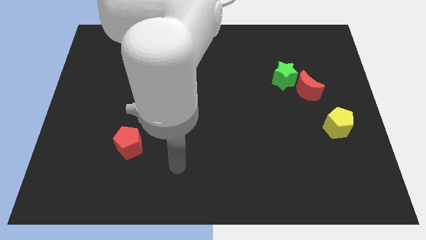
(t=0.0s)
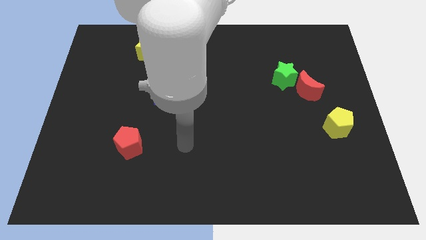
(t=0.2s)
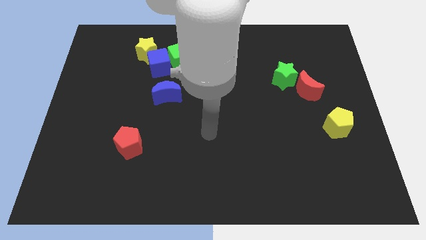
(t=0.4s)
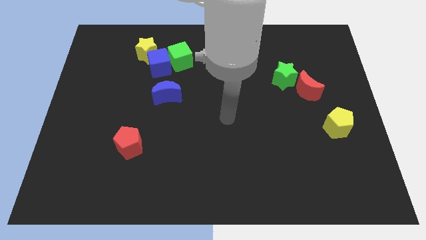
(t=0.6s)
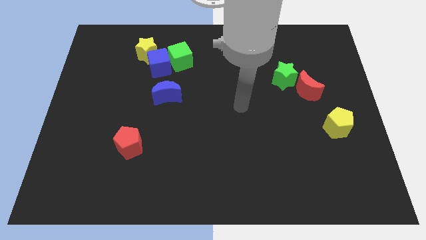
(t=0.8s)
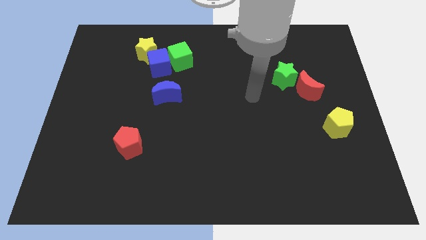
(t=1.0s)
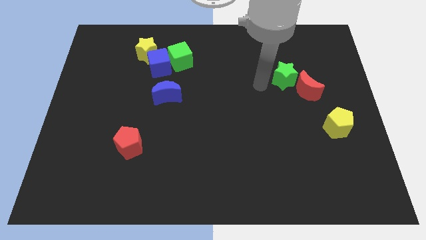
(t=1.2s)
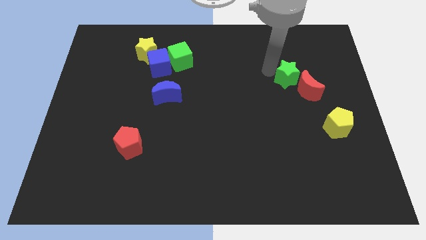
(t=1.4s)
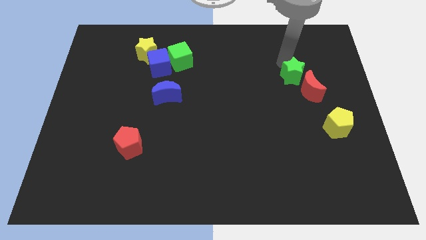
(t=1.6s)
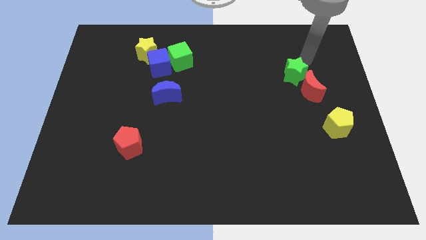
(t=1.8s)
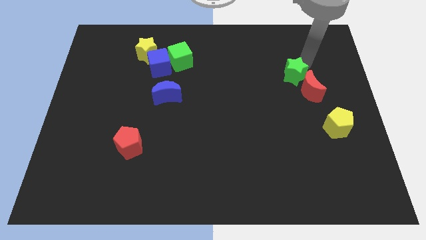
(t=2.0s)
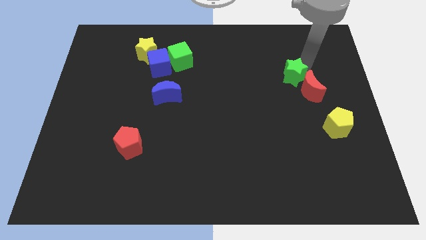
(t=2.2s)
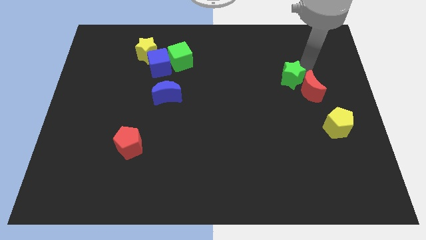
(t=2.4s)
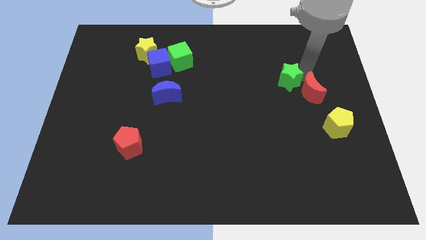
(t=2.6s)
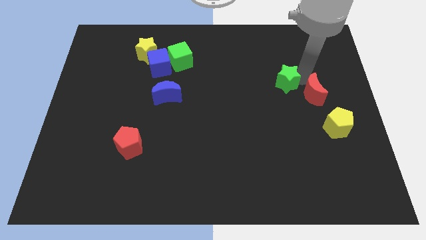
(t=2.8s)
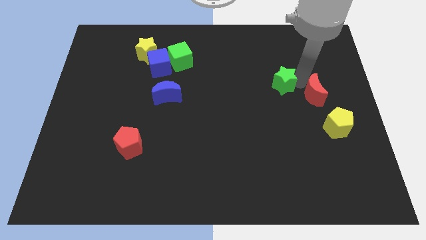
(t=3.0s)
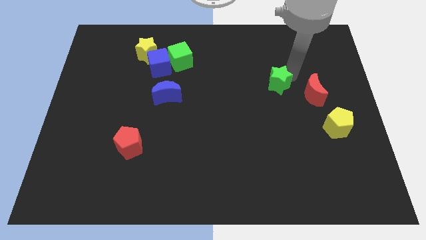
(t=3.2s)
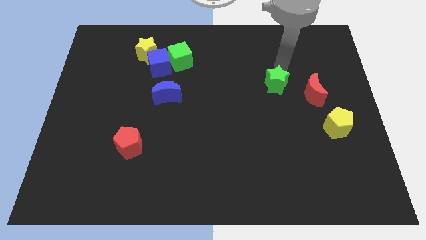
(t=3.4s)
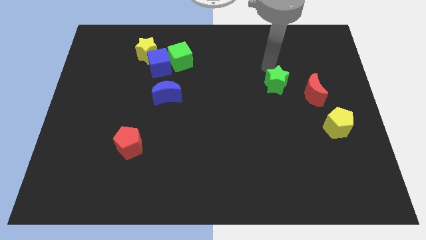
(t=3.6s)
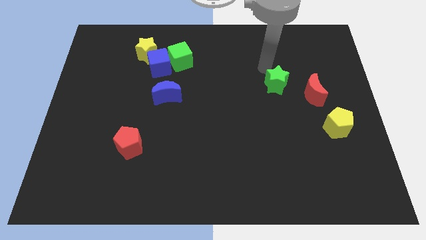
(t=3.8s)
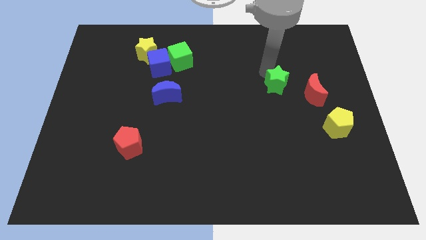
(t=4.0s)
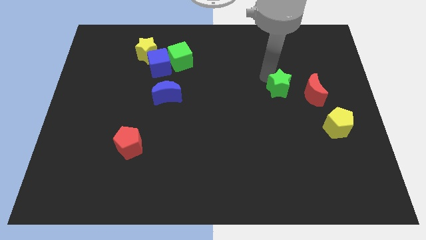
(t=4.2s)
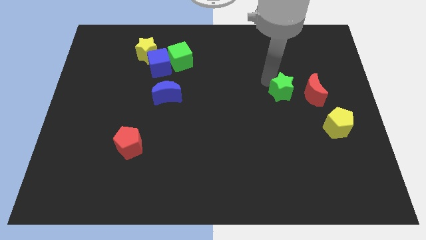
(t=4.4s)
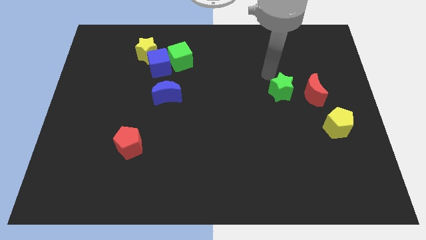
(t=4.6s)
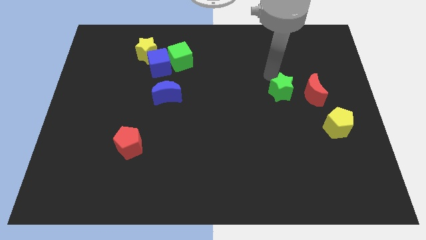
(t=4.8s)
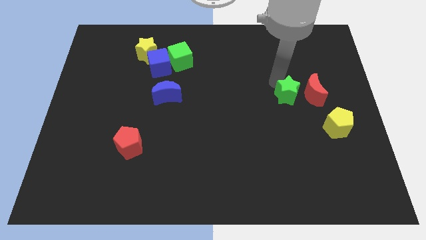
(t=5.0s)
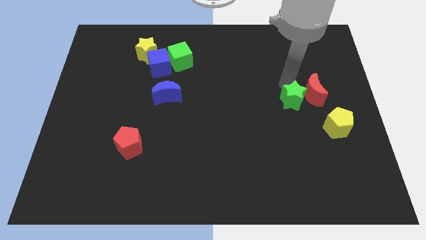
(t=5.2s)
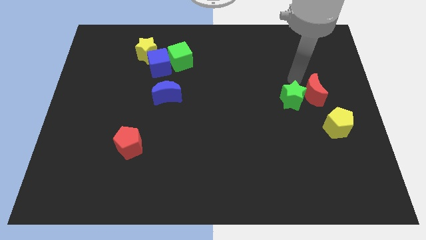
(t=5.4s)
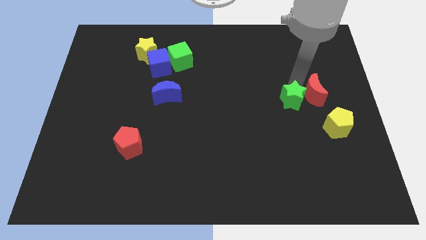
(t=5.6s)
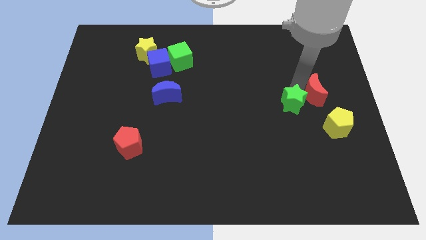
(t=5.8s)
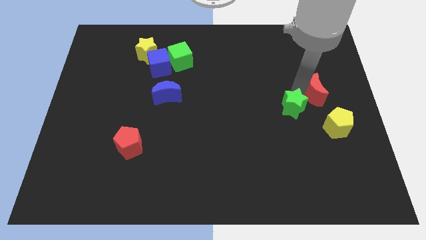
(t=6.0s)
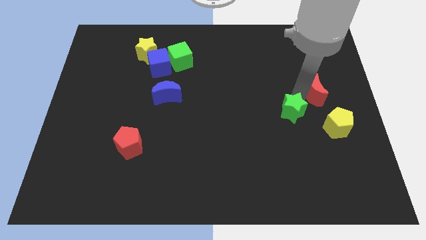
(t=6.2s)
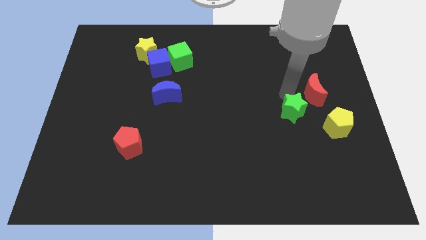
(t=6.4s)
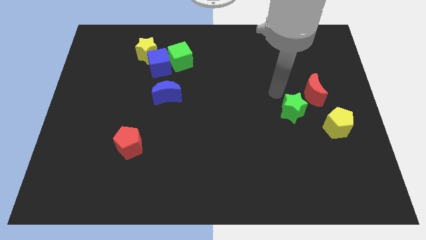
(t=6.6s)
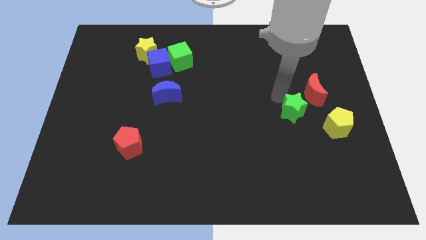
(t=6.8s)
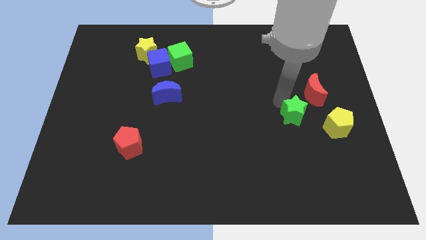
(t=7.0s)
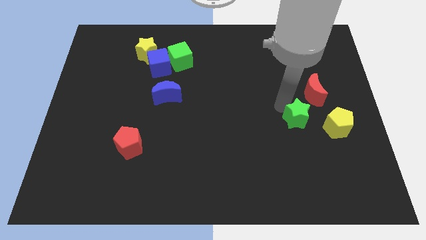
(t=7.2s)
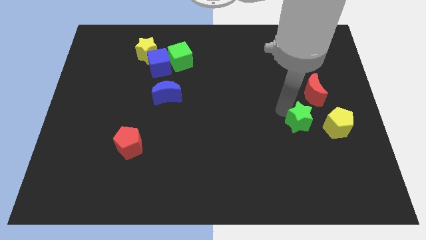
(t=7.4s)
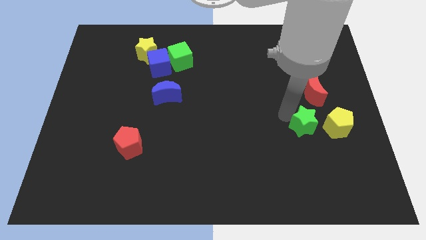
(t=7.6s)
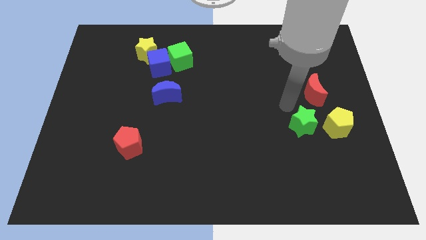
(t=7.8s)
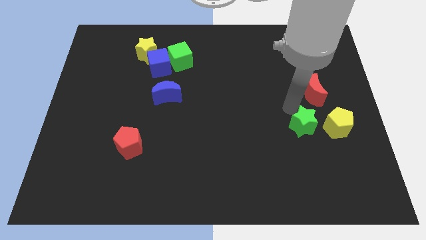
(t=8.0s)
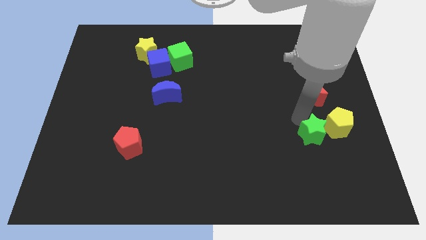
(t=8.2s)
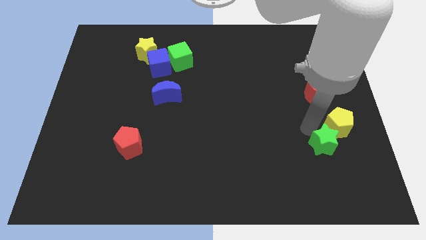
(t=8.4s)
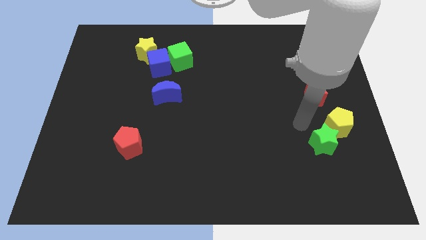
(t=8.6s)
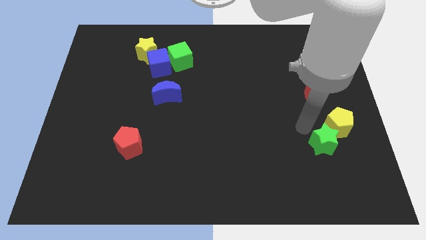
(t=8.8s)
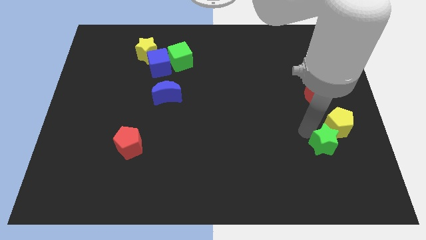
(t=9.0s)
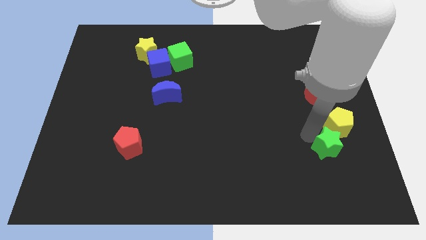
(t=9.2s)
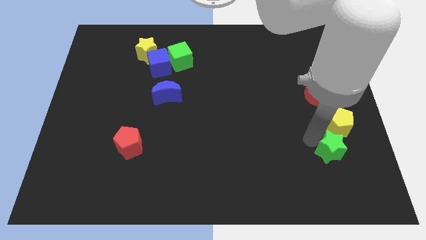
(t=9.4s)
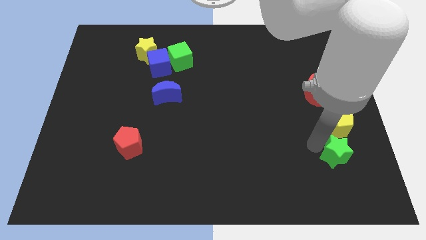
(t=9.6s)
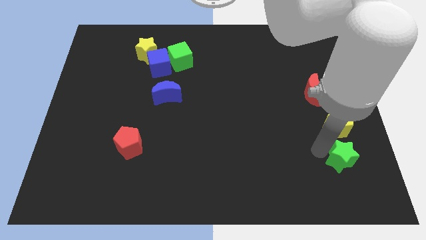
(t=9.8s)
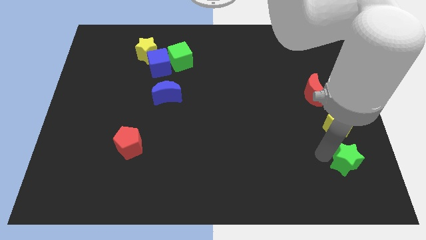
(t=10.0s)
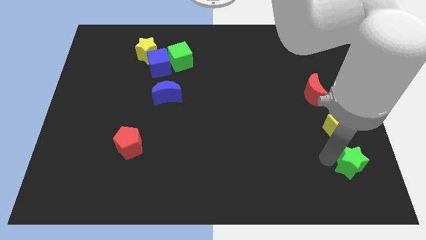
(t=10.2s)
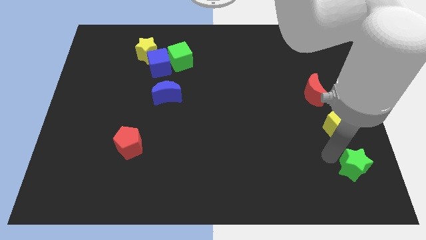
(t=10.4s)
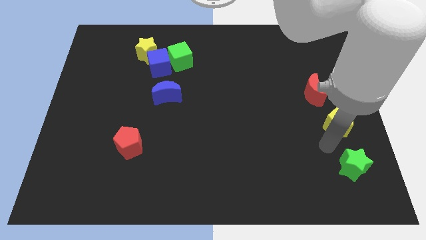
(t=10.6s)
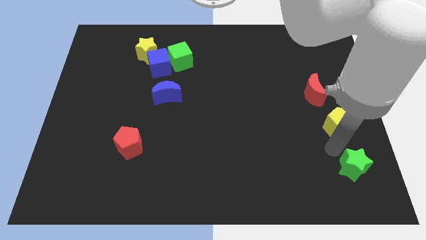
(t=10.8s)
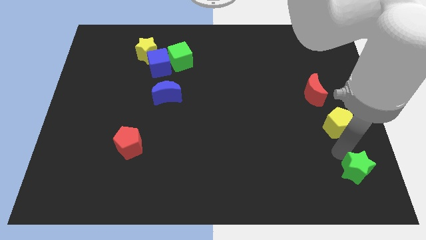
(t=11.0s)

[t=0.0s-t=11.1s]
move the green star to the bottom right corner
